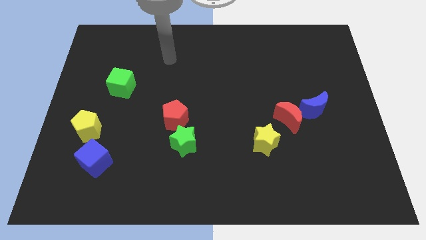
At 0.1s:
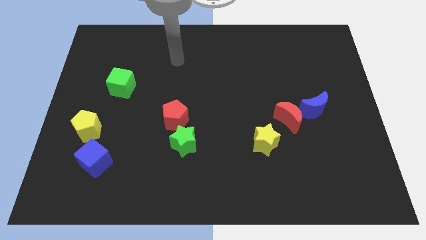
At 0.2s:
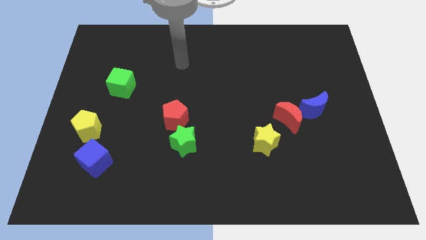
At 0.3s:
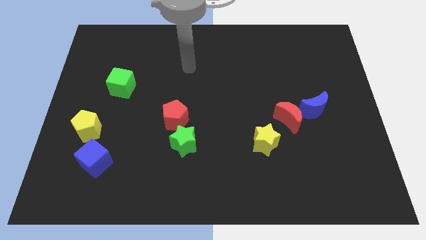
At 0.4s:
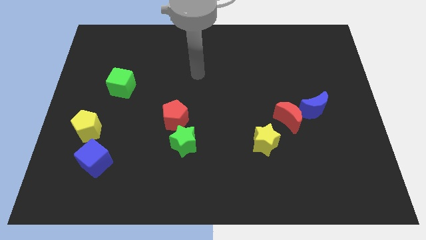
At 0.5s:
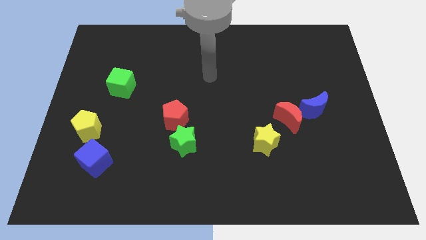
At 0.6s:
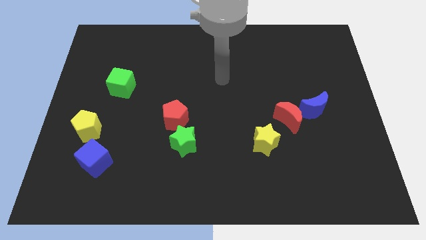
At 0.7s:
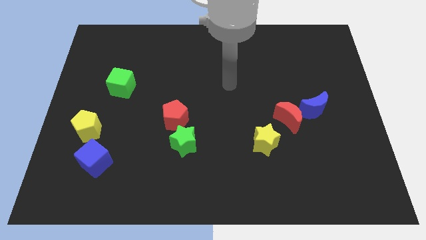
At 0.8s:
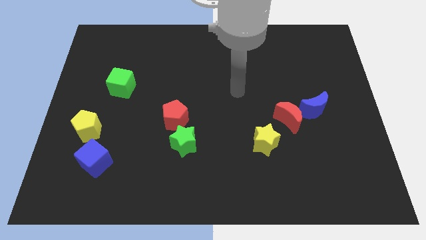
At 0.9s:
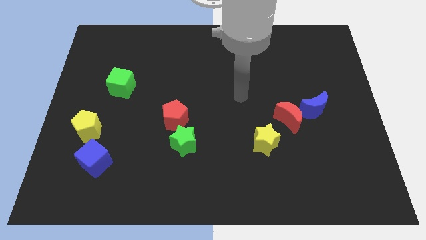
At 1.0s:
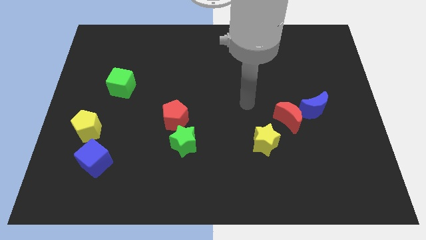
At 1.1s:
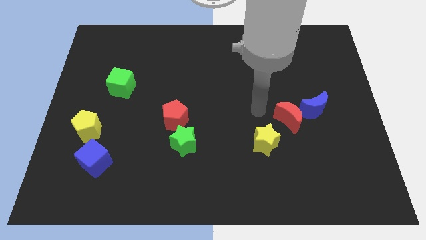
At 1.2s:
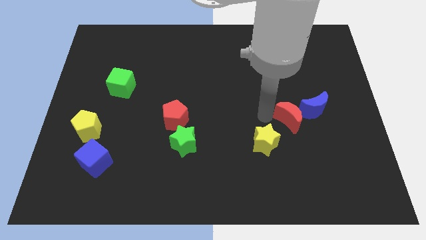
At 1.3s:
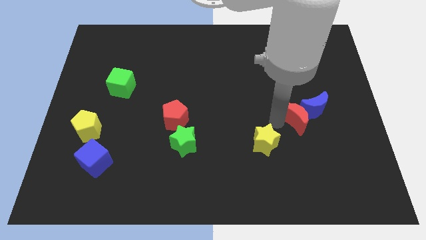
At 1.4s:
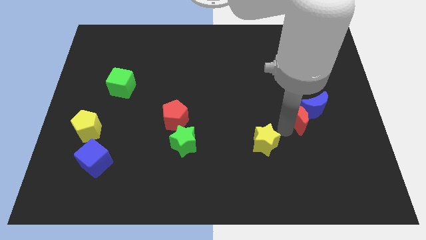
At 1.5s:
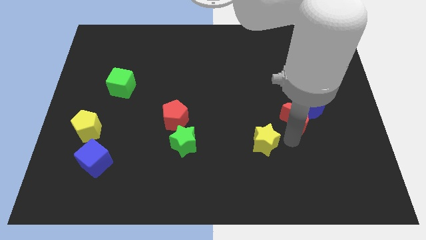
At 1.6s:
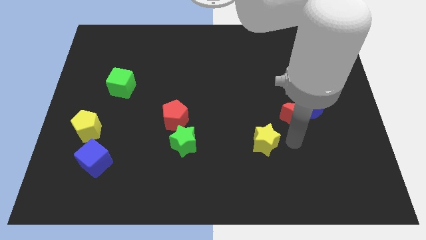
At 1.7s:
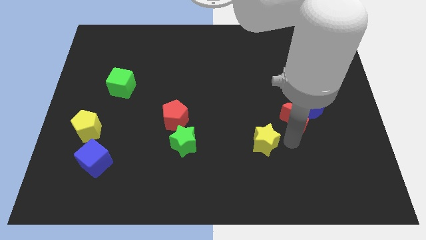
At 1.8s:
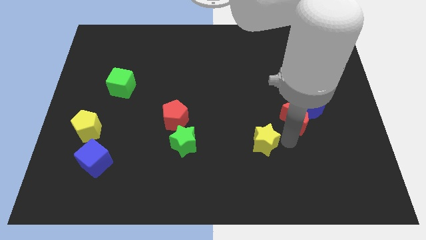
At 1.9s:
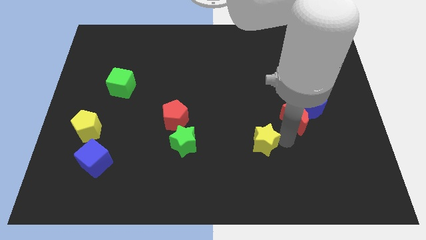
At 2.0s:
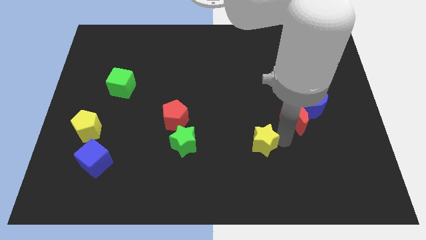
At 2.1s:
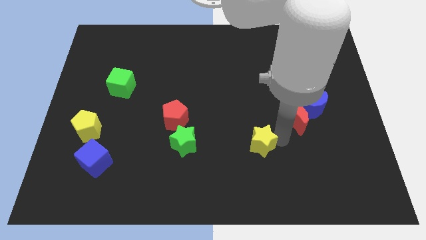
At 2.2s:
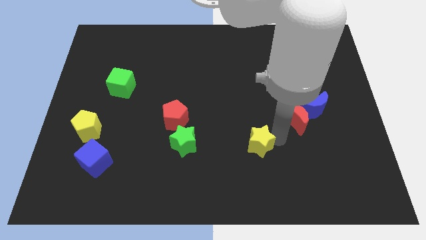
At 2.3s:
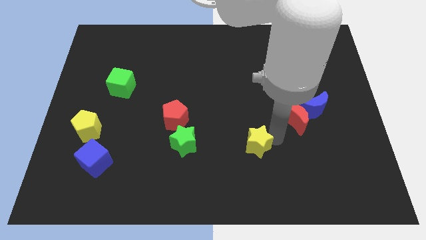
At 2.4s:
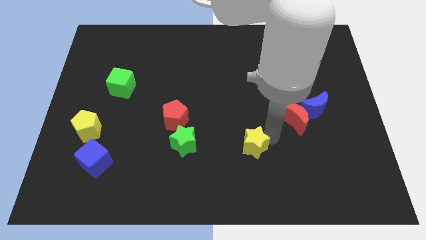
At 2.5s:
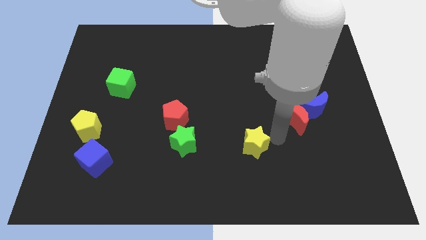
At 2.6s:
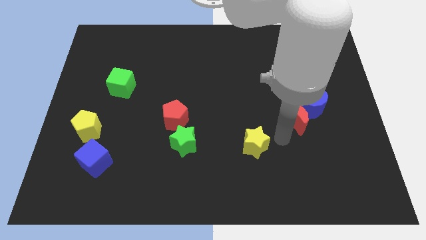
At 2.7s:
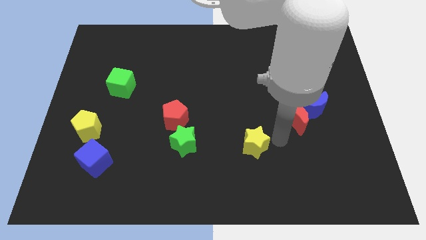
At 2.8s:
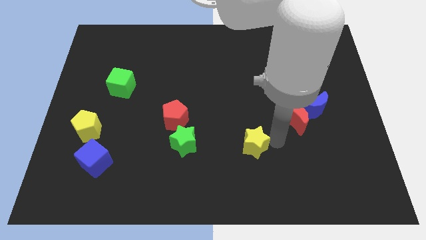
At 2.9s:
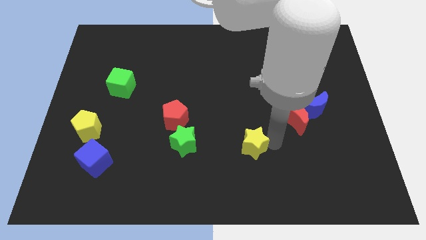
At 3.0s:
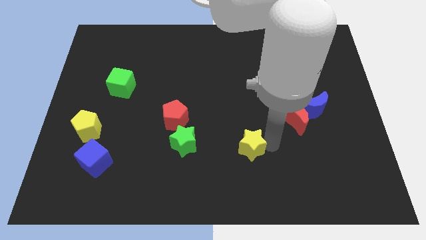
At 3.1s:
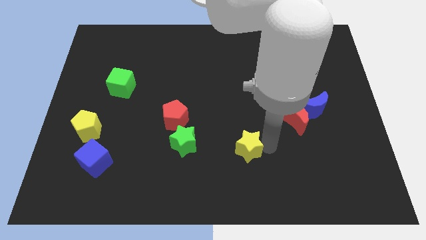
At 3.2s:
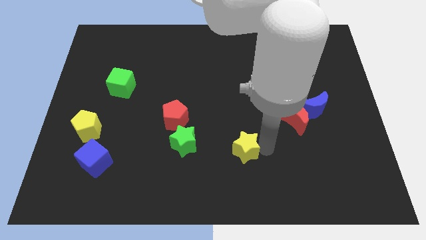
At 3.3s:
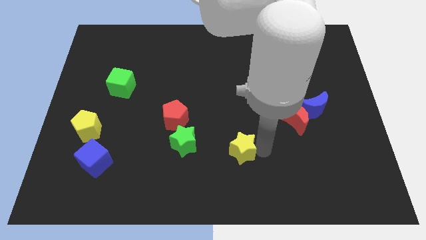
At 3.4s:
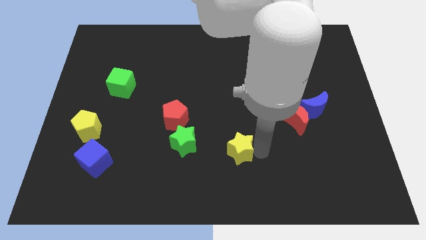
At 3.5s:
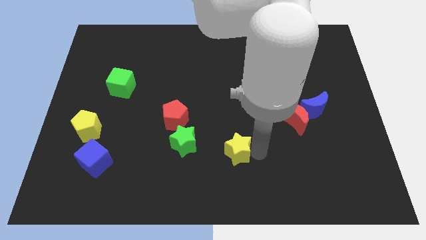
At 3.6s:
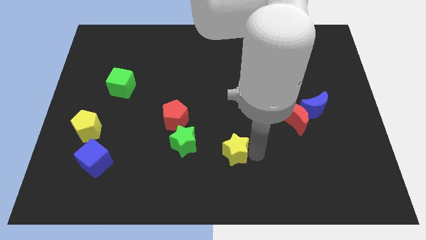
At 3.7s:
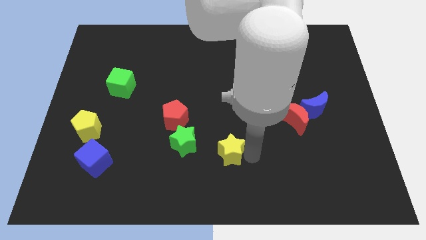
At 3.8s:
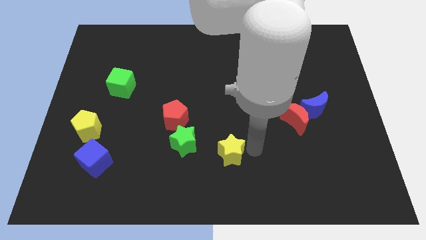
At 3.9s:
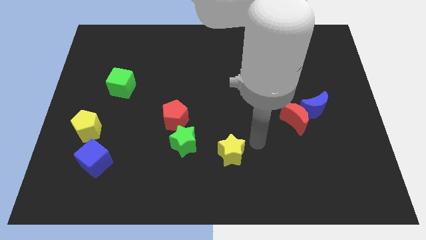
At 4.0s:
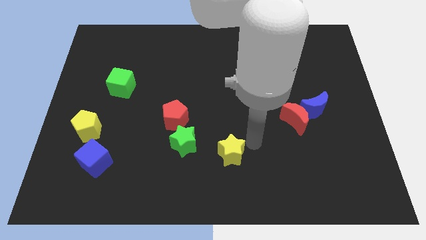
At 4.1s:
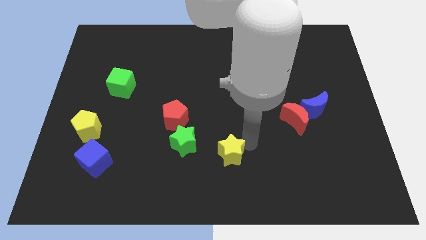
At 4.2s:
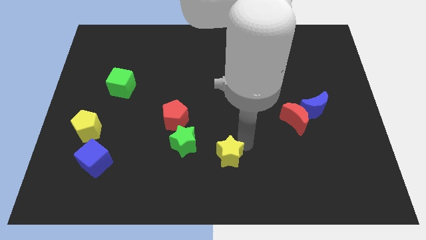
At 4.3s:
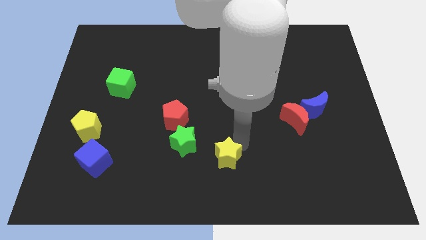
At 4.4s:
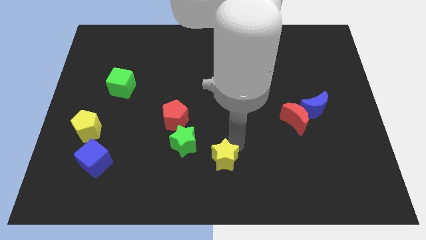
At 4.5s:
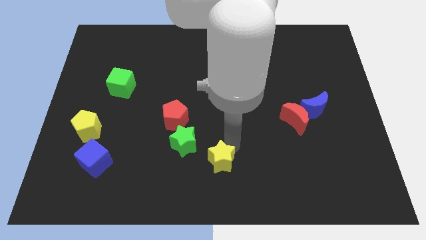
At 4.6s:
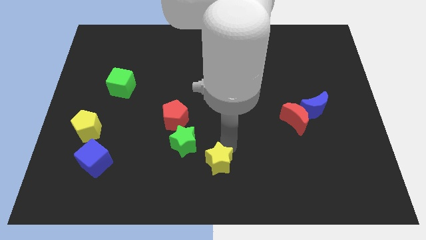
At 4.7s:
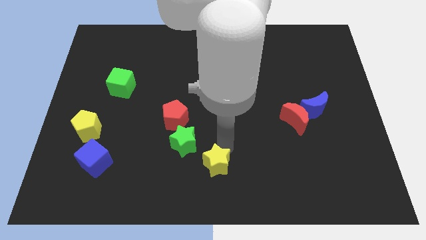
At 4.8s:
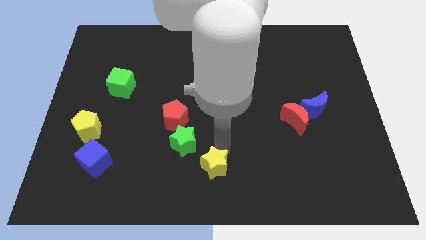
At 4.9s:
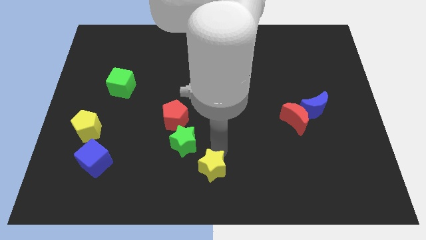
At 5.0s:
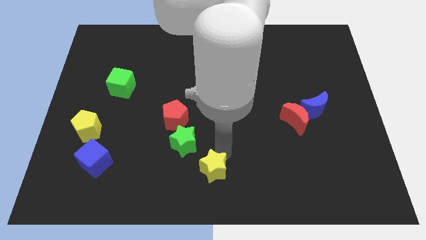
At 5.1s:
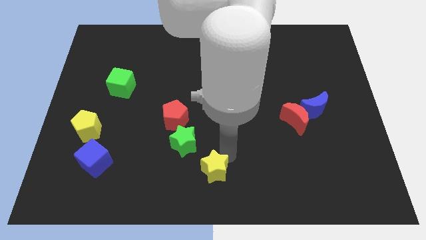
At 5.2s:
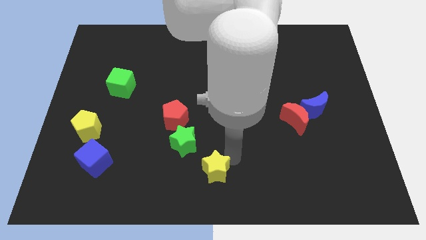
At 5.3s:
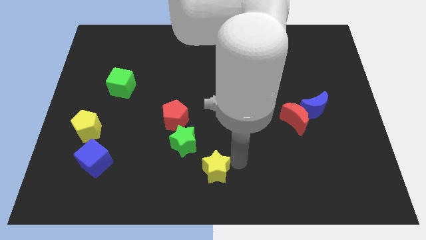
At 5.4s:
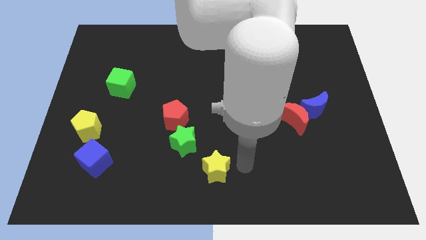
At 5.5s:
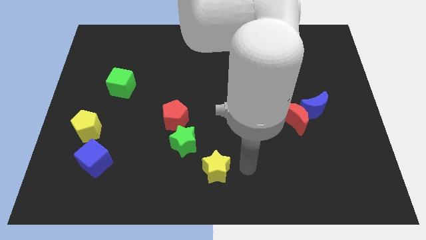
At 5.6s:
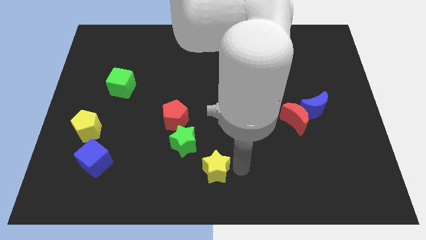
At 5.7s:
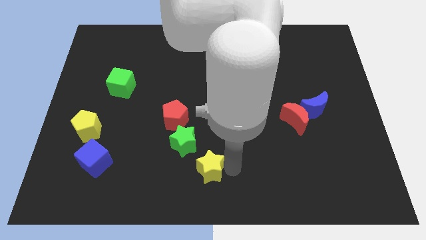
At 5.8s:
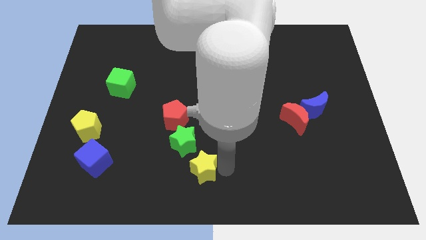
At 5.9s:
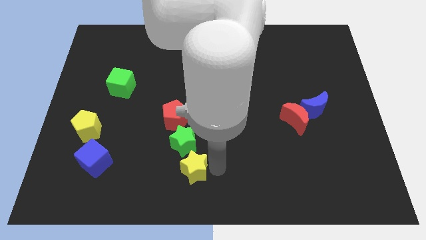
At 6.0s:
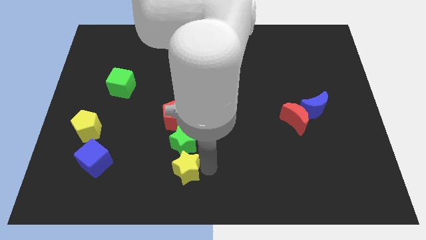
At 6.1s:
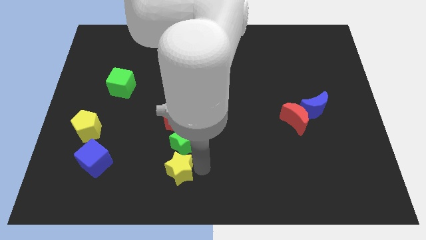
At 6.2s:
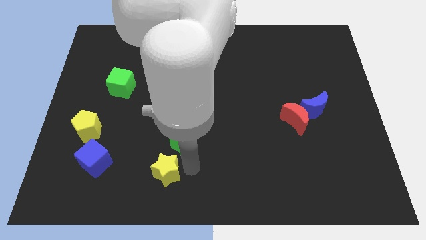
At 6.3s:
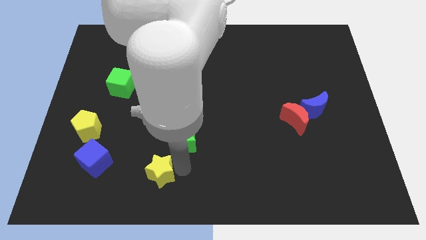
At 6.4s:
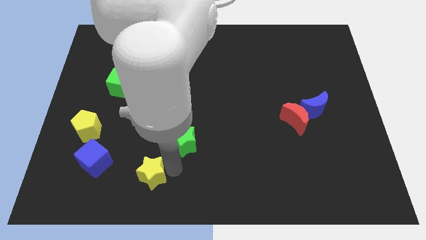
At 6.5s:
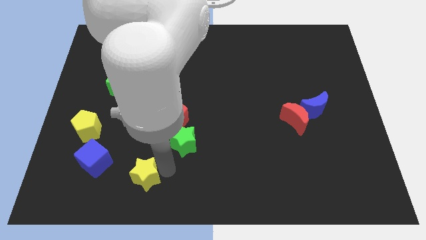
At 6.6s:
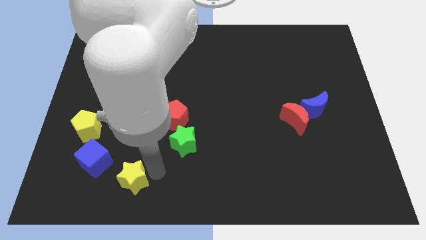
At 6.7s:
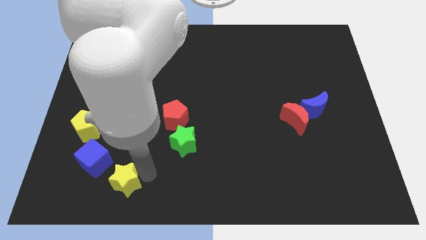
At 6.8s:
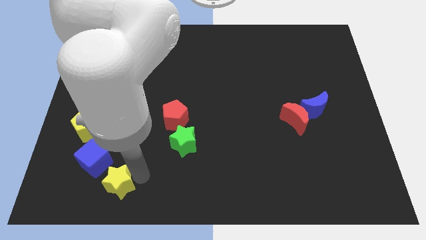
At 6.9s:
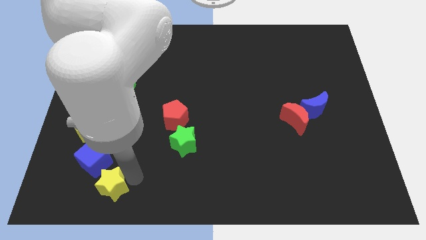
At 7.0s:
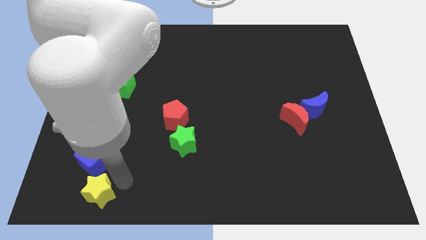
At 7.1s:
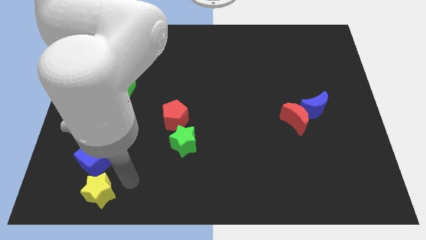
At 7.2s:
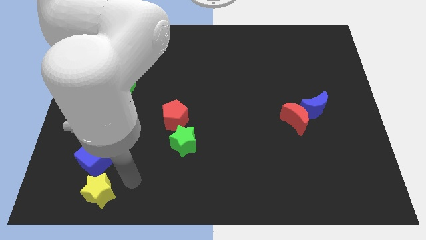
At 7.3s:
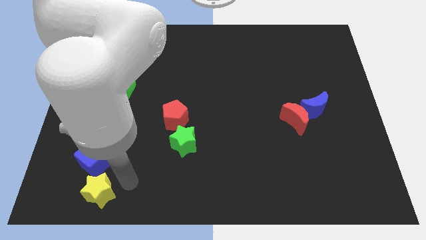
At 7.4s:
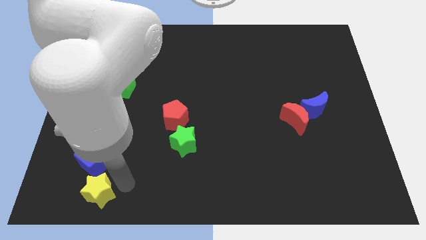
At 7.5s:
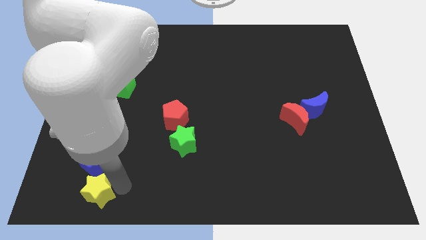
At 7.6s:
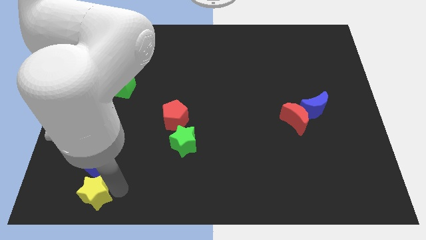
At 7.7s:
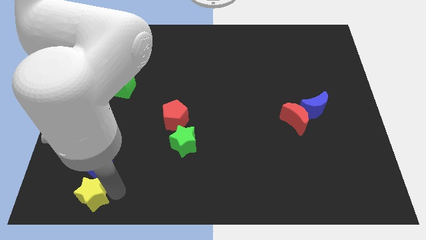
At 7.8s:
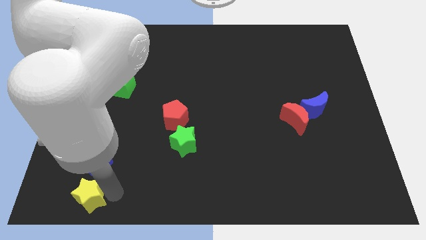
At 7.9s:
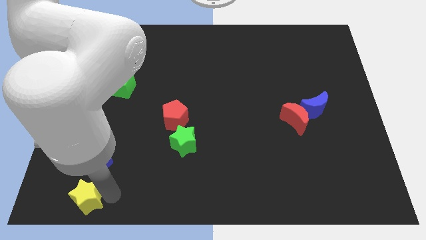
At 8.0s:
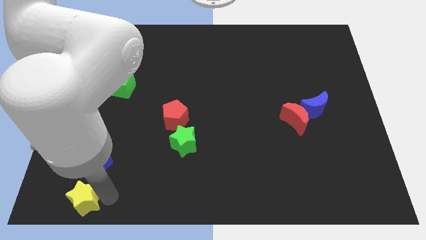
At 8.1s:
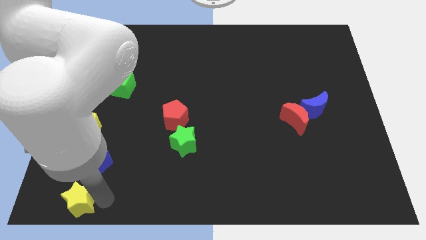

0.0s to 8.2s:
move the yellow star to the bottom left corner
